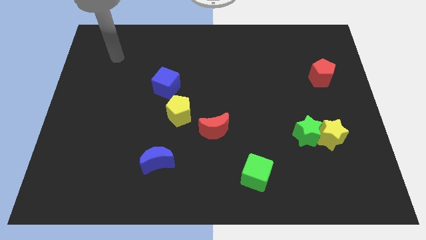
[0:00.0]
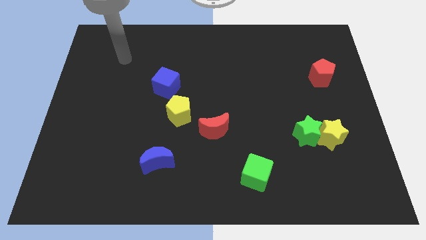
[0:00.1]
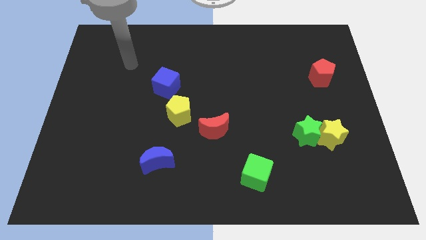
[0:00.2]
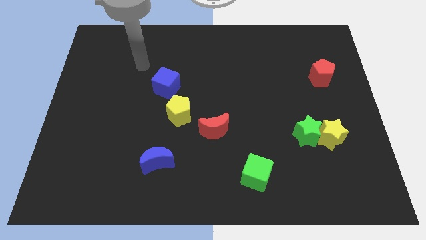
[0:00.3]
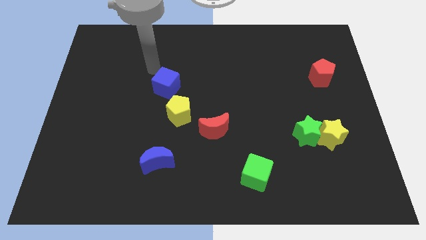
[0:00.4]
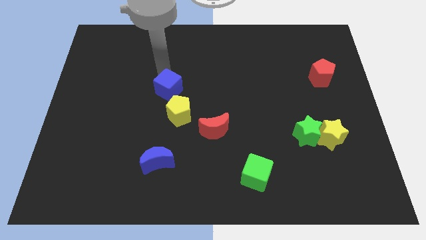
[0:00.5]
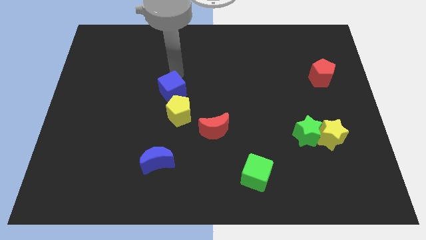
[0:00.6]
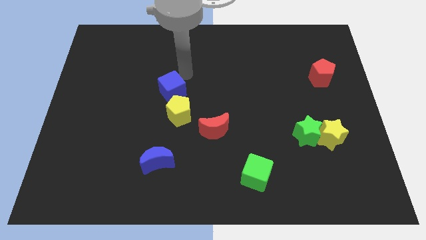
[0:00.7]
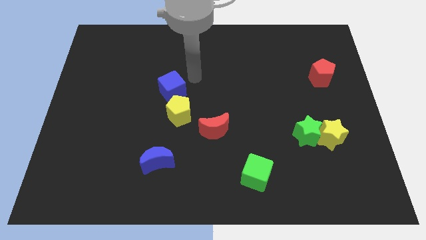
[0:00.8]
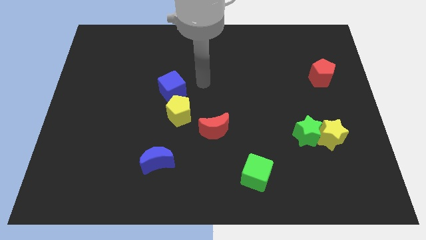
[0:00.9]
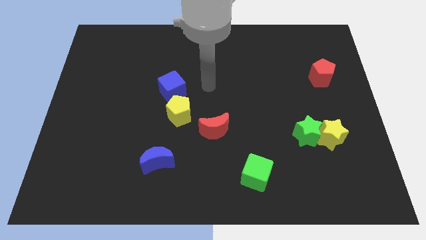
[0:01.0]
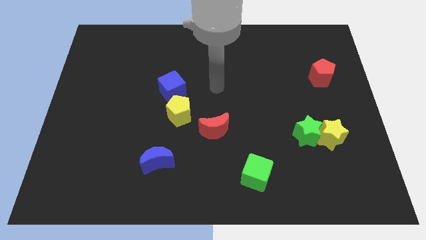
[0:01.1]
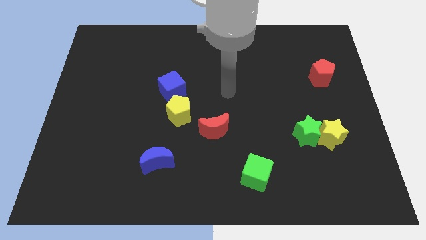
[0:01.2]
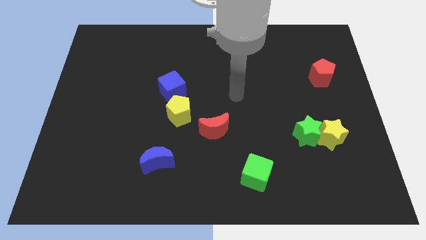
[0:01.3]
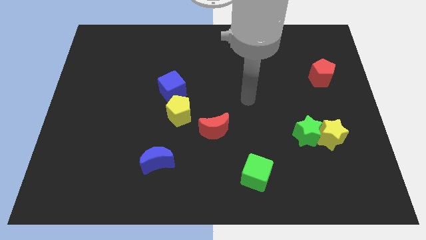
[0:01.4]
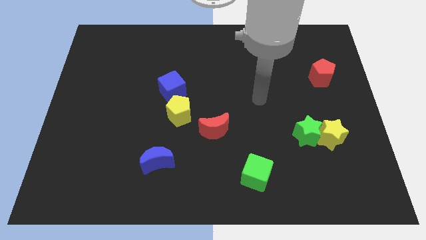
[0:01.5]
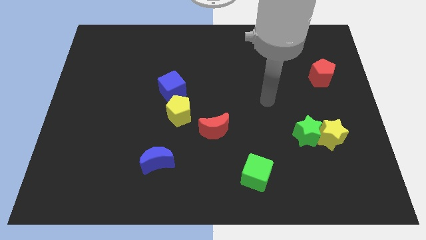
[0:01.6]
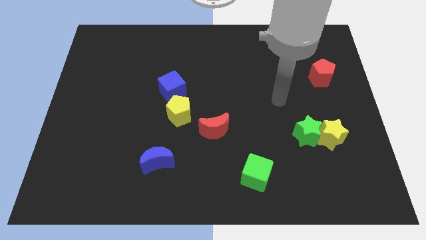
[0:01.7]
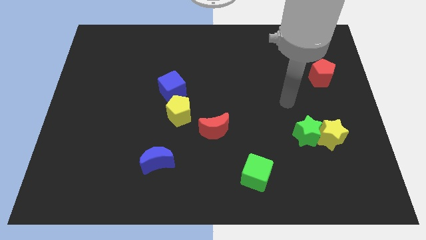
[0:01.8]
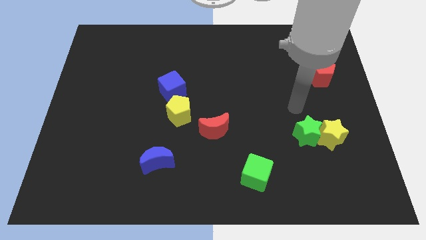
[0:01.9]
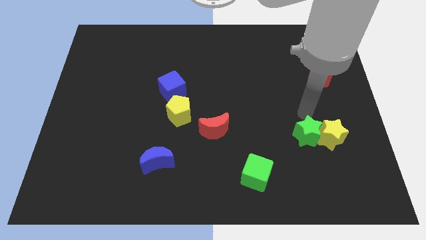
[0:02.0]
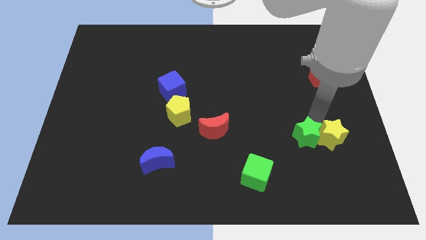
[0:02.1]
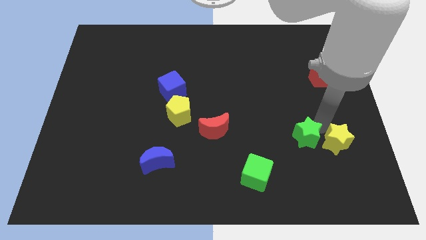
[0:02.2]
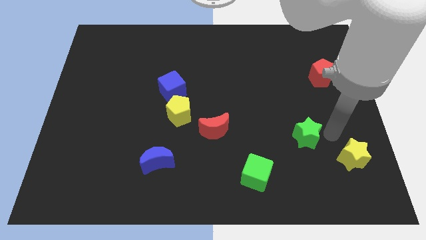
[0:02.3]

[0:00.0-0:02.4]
separate the green star from the yellow star

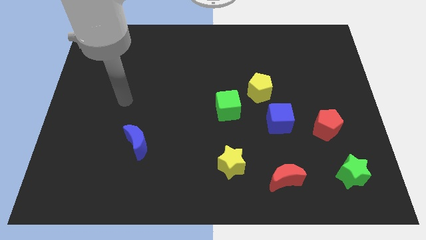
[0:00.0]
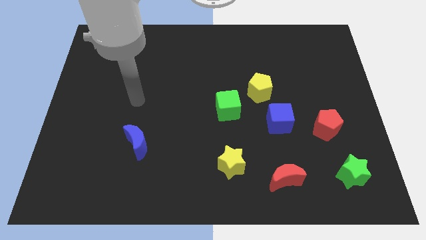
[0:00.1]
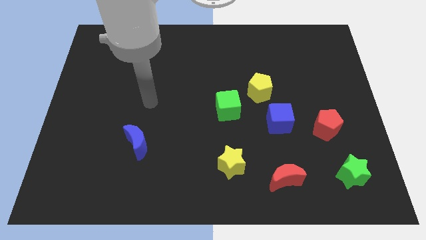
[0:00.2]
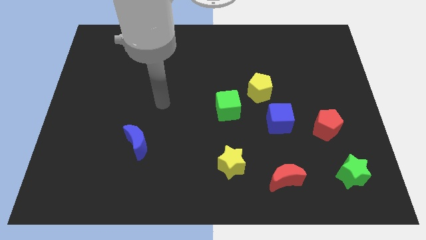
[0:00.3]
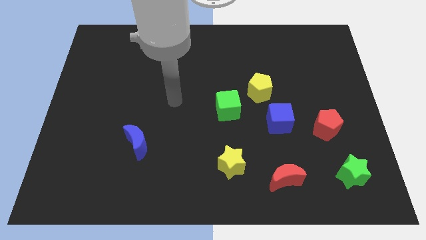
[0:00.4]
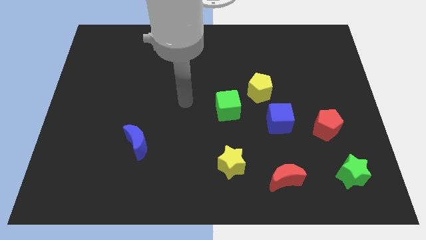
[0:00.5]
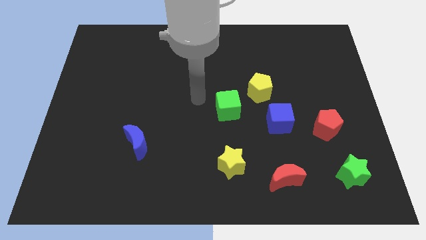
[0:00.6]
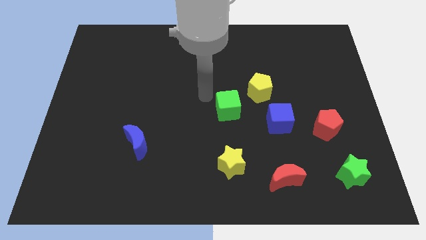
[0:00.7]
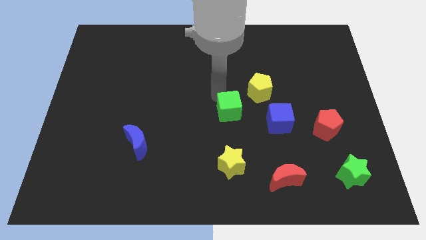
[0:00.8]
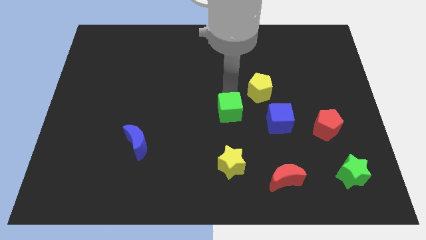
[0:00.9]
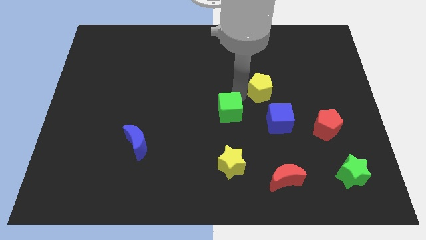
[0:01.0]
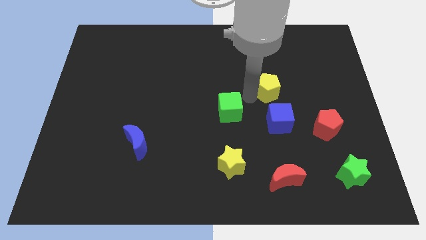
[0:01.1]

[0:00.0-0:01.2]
pull the green cube apart from the yellow pentagon

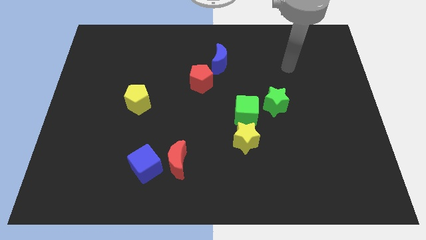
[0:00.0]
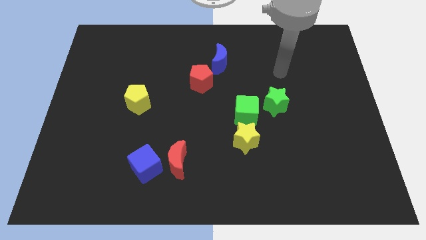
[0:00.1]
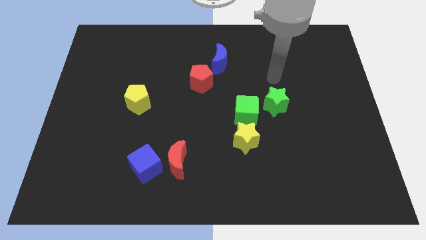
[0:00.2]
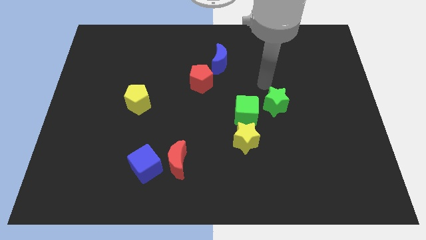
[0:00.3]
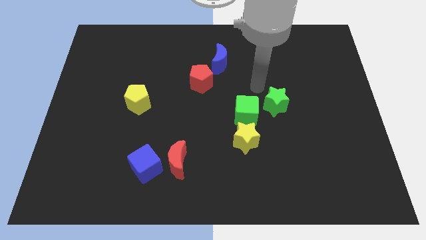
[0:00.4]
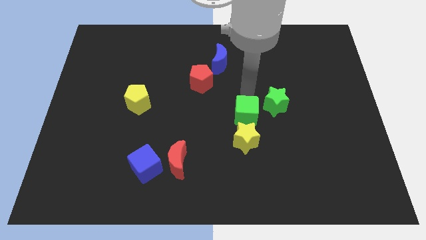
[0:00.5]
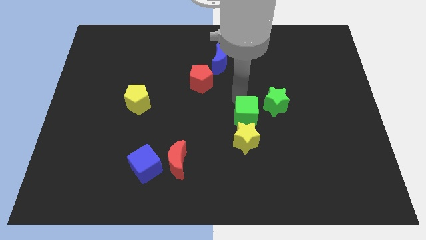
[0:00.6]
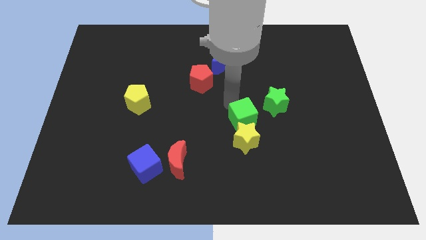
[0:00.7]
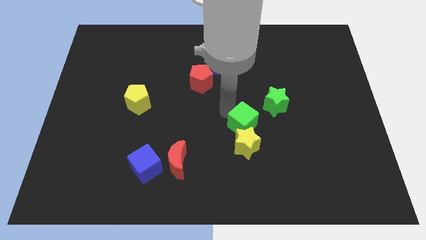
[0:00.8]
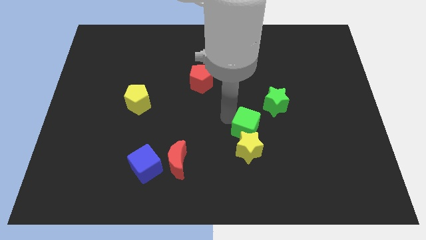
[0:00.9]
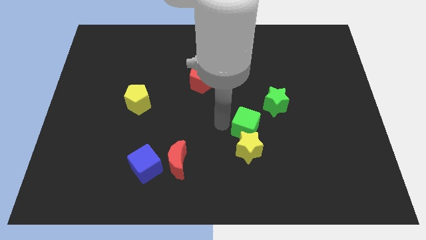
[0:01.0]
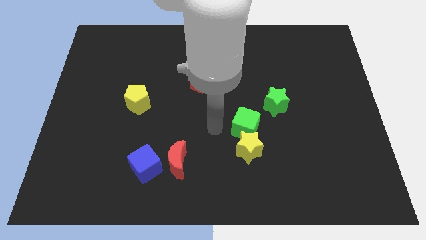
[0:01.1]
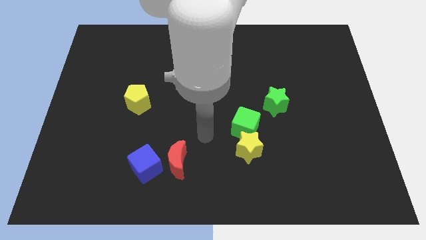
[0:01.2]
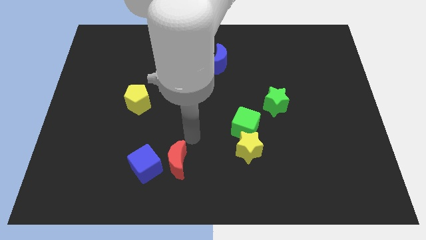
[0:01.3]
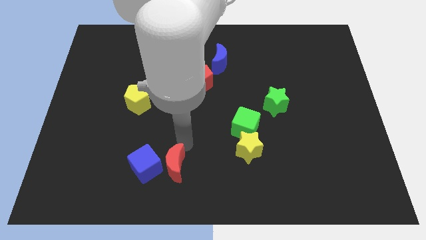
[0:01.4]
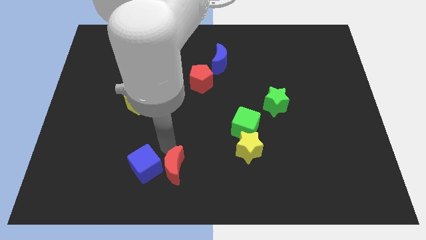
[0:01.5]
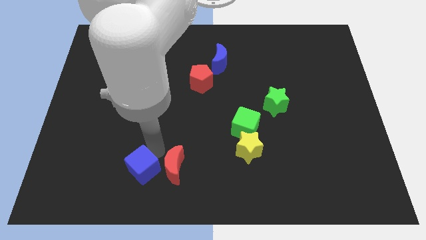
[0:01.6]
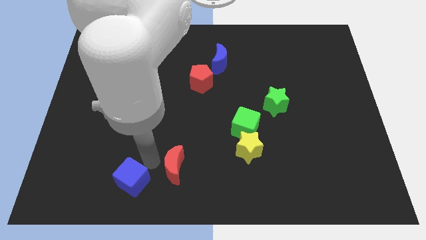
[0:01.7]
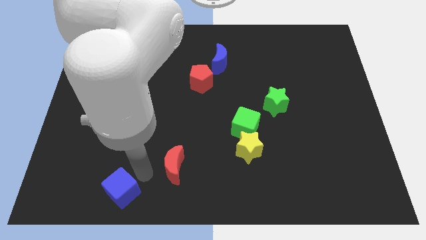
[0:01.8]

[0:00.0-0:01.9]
pull the red moon apart from the blue cube

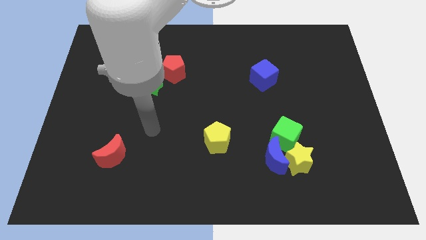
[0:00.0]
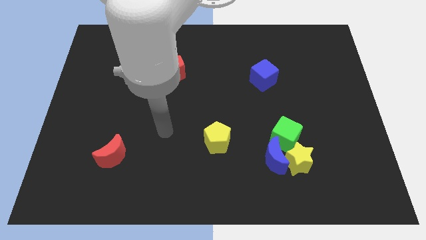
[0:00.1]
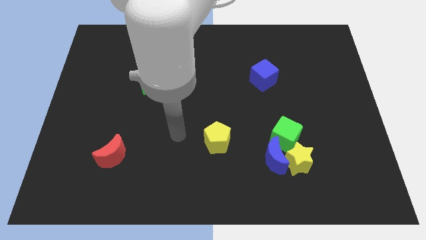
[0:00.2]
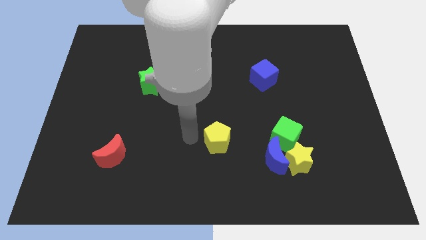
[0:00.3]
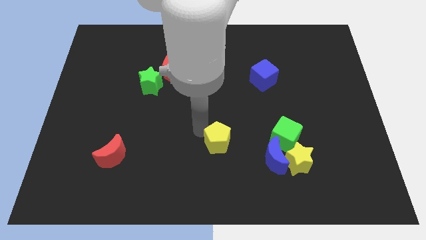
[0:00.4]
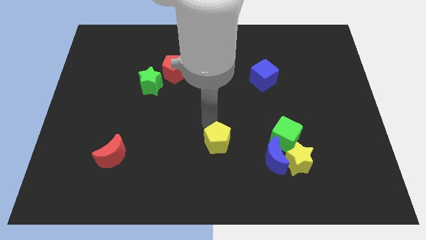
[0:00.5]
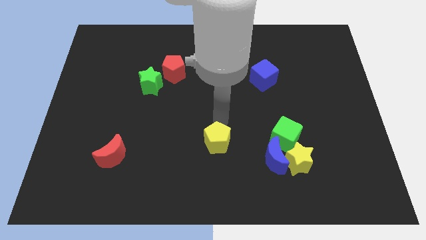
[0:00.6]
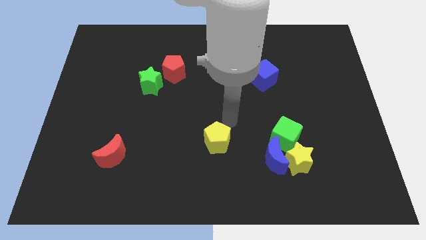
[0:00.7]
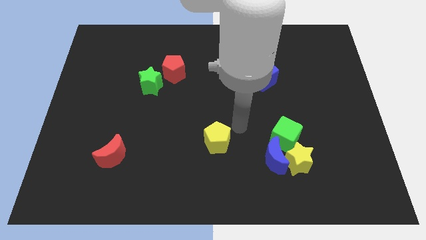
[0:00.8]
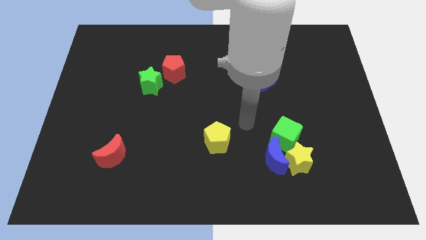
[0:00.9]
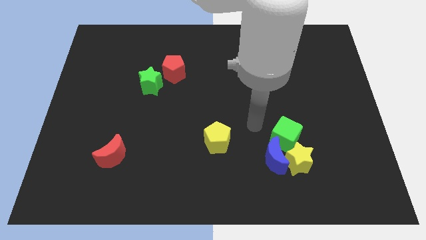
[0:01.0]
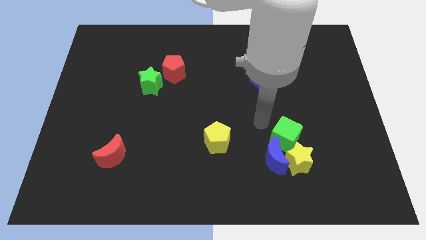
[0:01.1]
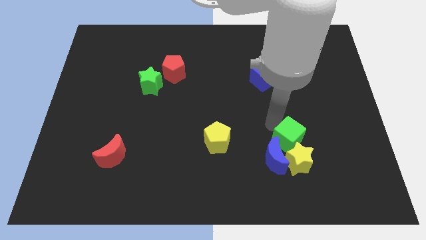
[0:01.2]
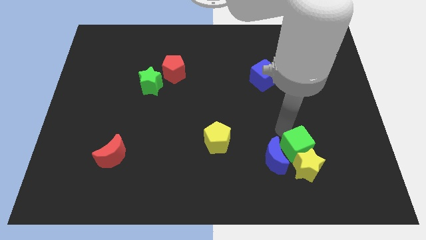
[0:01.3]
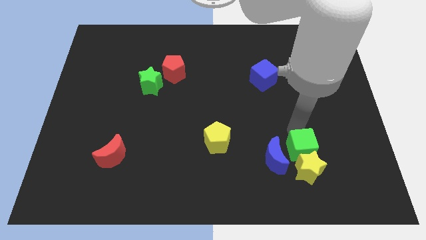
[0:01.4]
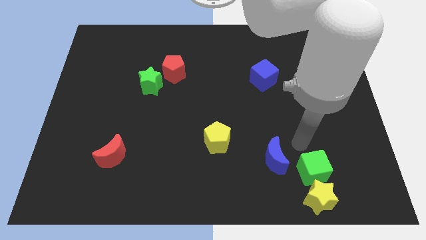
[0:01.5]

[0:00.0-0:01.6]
separate the blue moon from the yellow star and green cube

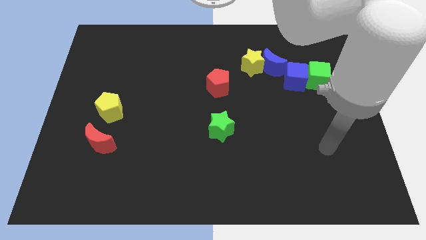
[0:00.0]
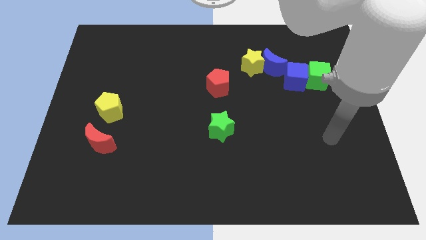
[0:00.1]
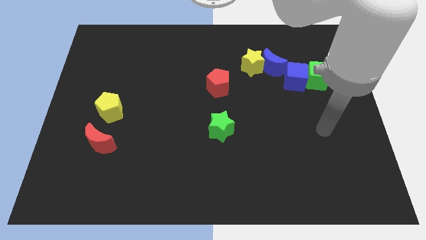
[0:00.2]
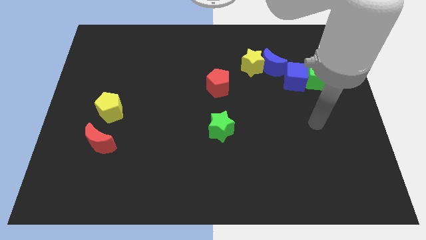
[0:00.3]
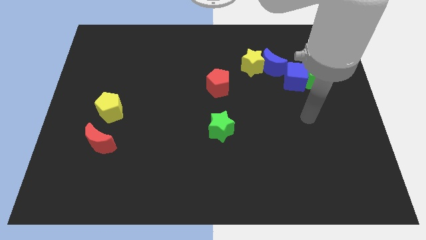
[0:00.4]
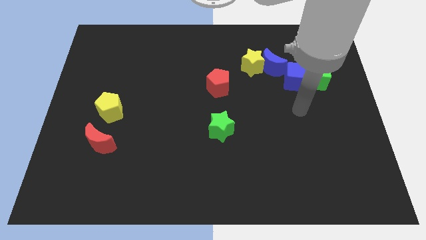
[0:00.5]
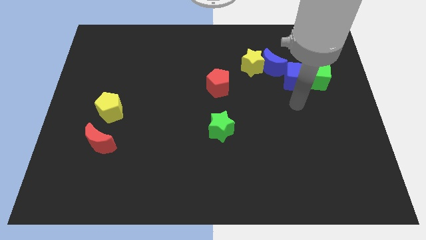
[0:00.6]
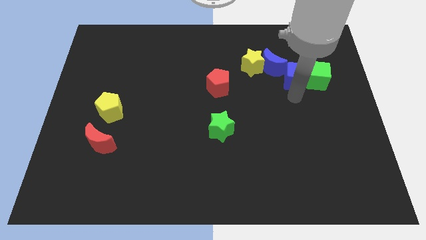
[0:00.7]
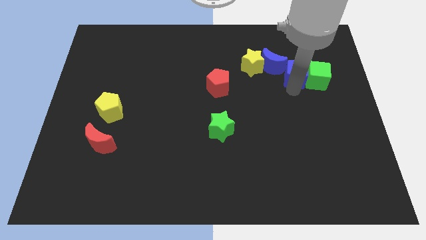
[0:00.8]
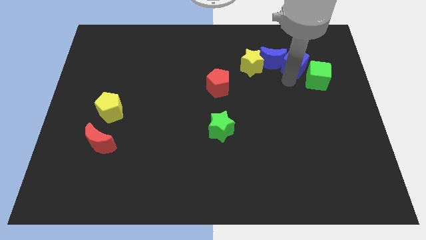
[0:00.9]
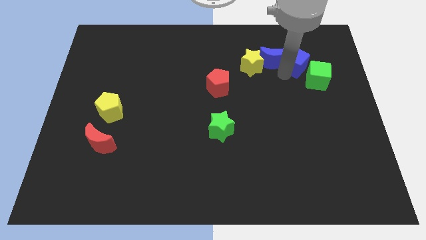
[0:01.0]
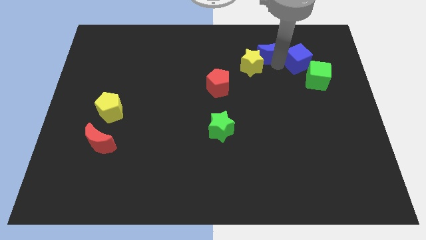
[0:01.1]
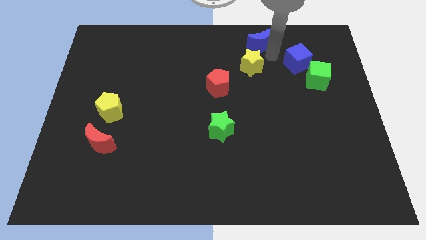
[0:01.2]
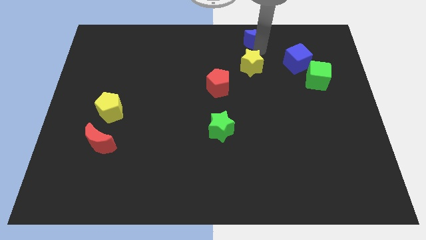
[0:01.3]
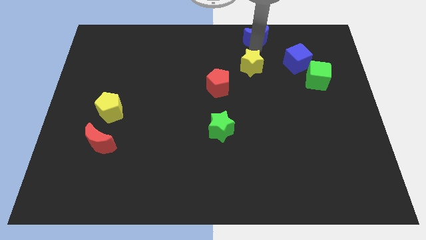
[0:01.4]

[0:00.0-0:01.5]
move the yellow star away from the blue moon

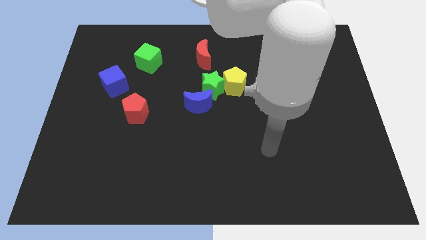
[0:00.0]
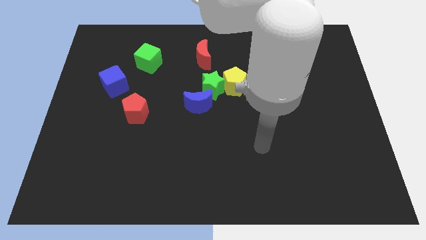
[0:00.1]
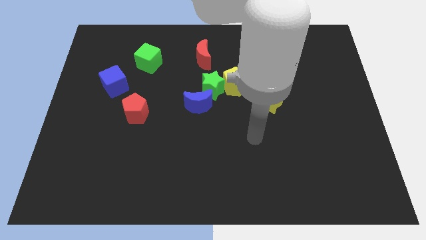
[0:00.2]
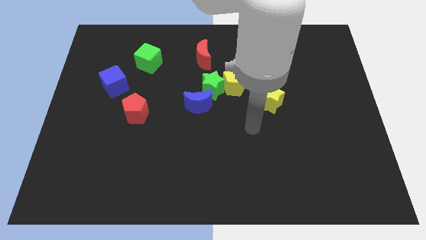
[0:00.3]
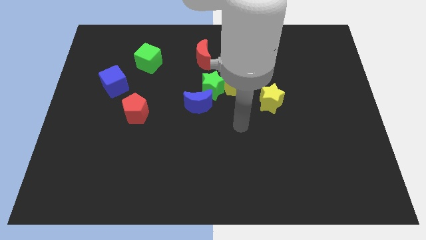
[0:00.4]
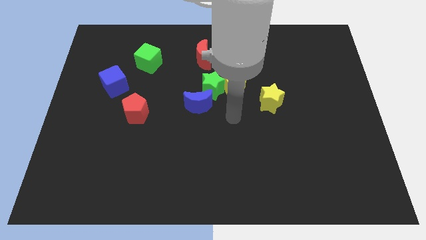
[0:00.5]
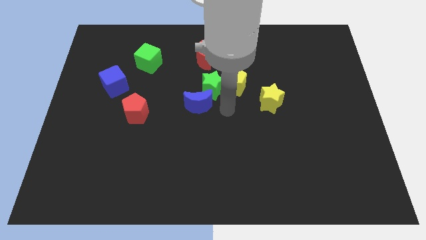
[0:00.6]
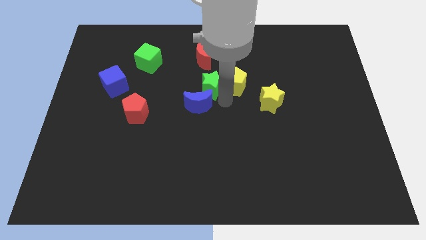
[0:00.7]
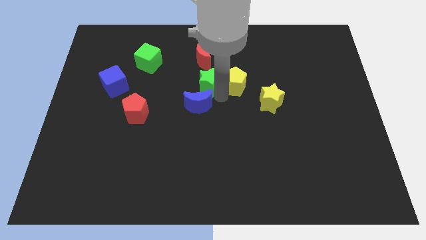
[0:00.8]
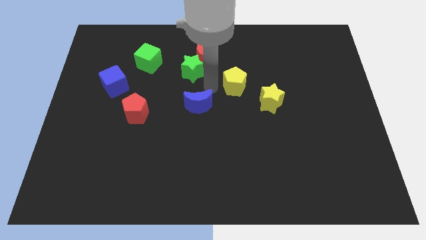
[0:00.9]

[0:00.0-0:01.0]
move the blue moon away from the green star
